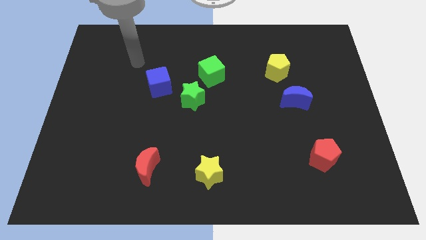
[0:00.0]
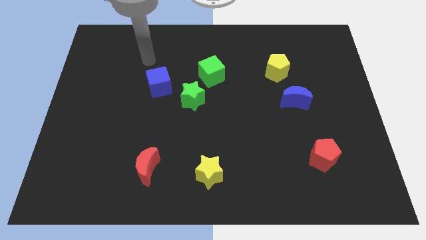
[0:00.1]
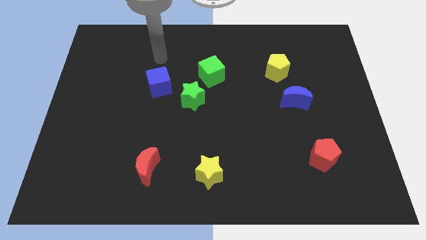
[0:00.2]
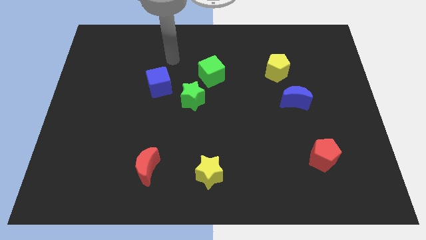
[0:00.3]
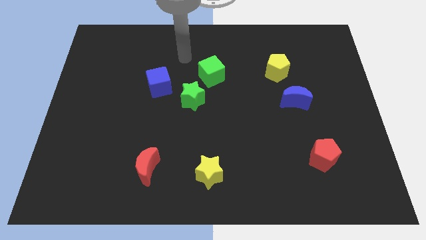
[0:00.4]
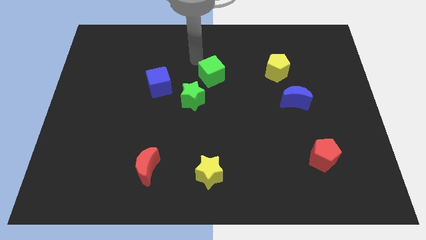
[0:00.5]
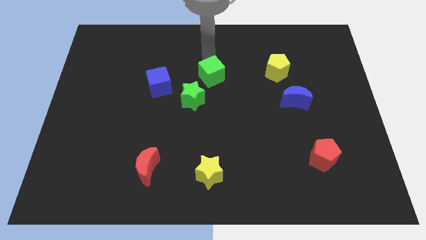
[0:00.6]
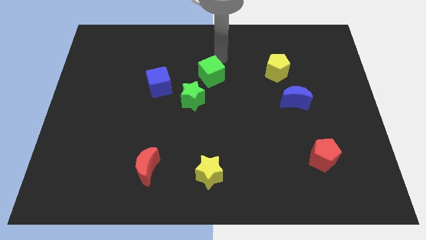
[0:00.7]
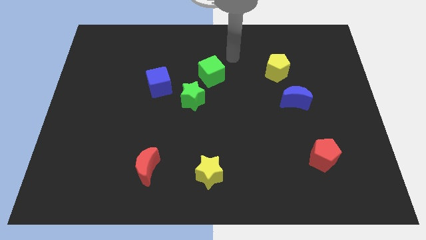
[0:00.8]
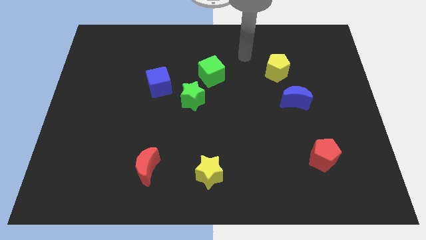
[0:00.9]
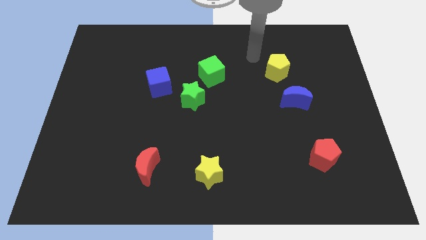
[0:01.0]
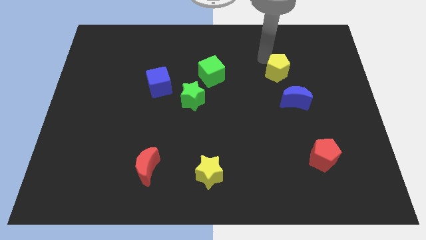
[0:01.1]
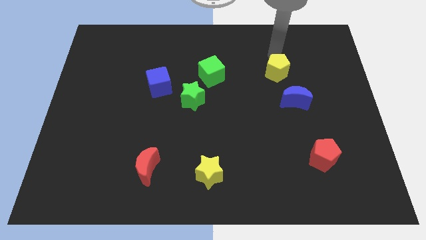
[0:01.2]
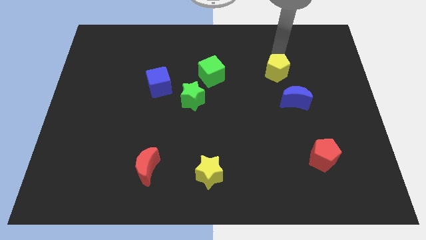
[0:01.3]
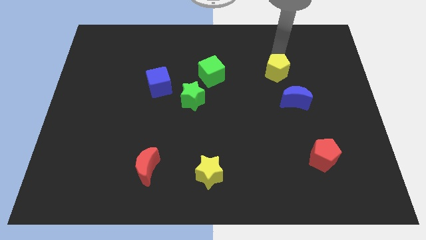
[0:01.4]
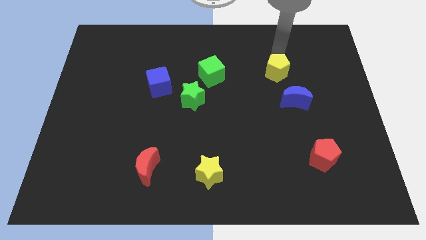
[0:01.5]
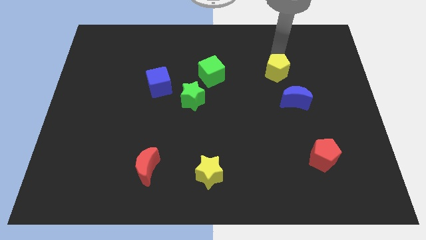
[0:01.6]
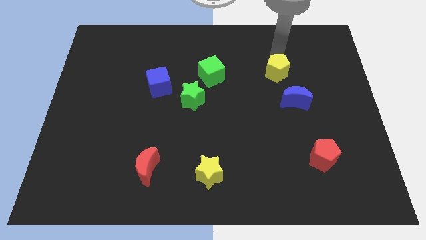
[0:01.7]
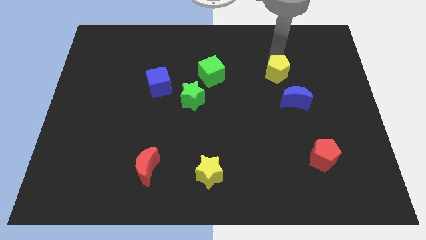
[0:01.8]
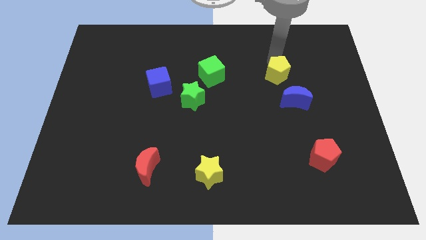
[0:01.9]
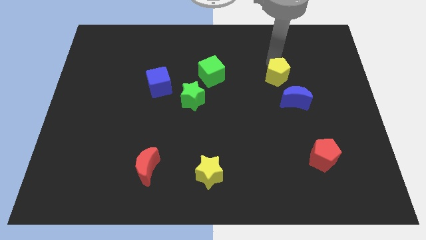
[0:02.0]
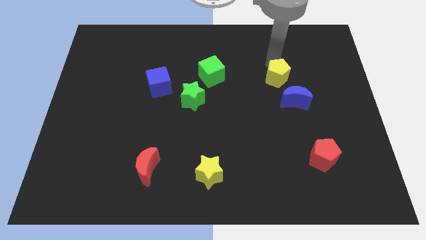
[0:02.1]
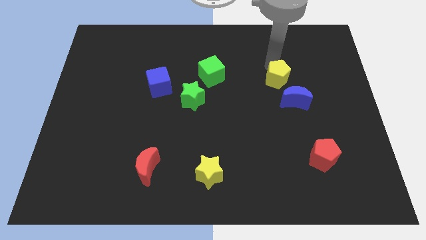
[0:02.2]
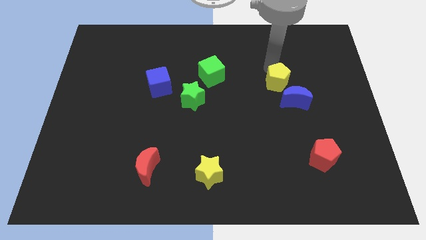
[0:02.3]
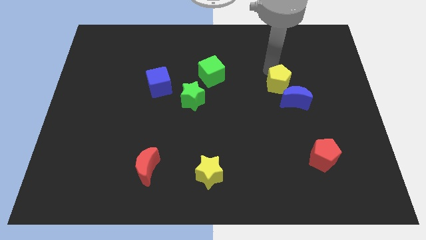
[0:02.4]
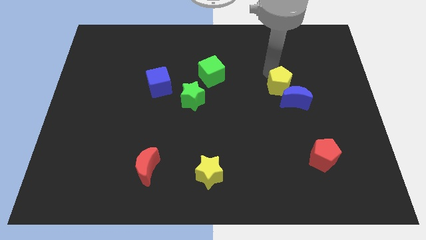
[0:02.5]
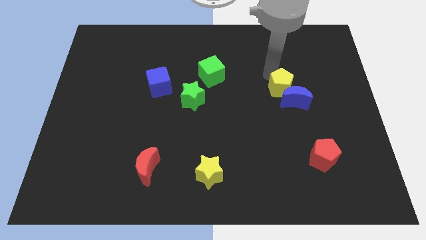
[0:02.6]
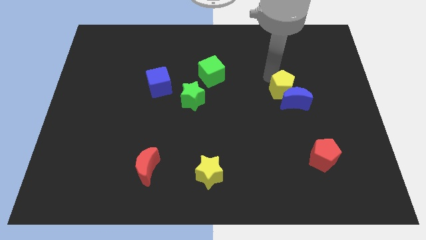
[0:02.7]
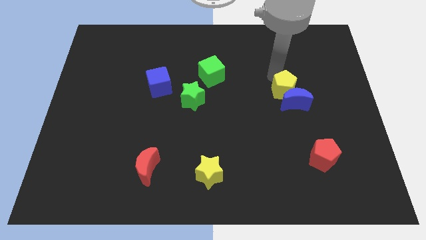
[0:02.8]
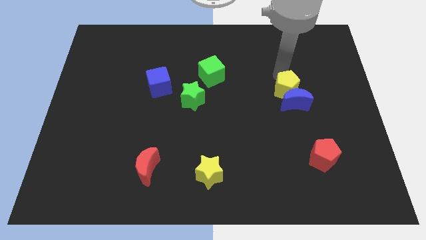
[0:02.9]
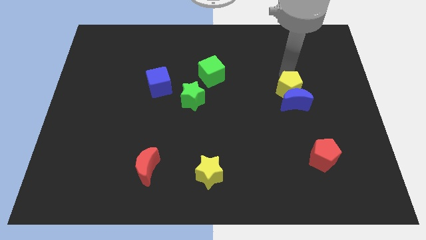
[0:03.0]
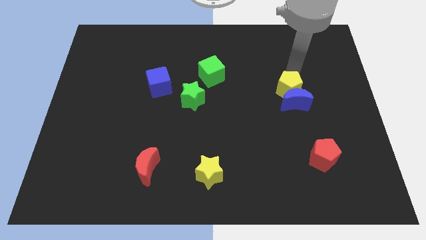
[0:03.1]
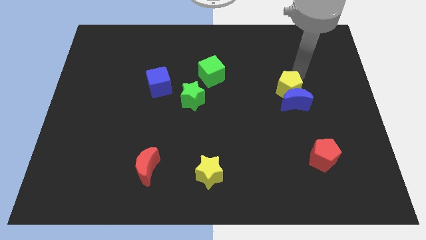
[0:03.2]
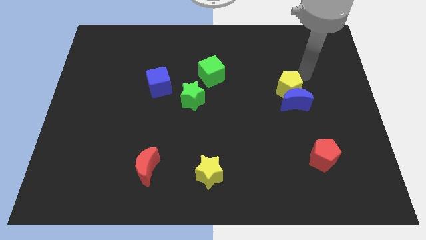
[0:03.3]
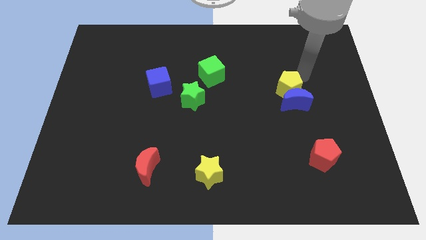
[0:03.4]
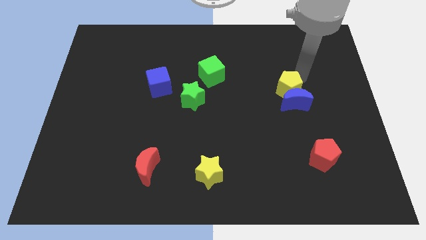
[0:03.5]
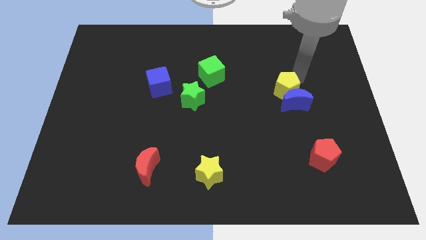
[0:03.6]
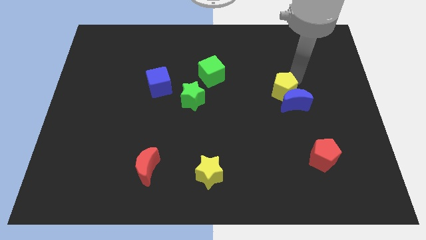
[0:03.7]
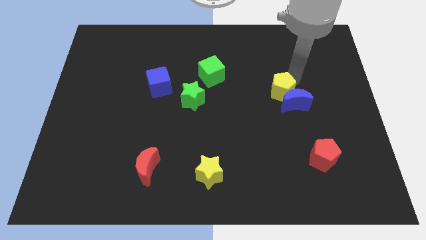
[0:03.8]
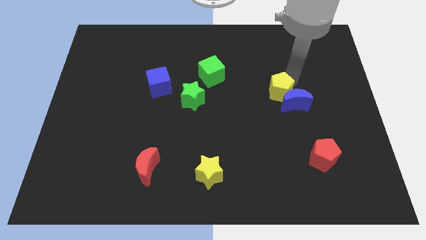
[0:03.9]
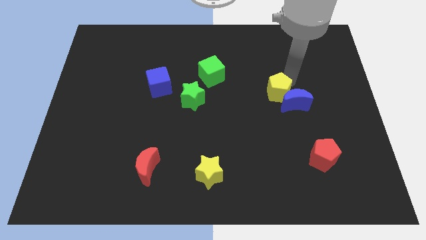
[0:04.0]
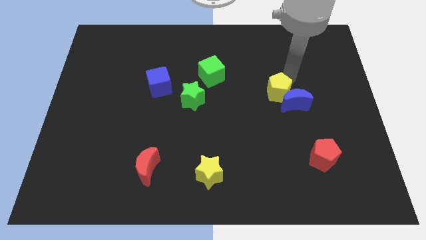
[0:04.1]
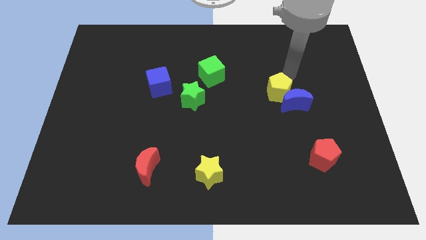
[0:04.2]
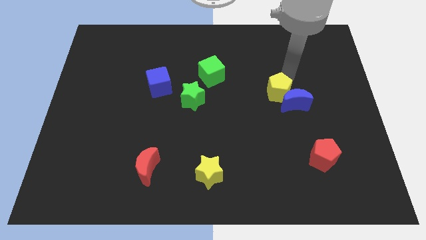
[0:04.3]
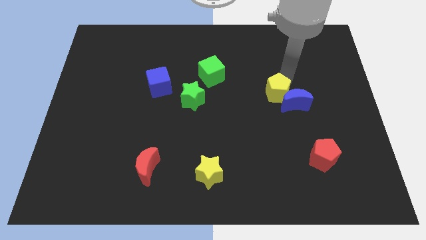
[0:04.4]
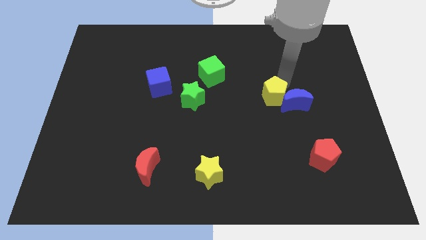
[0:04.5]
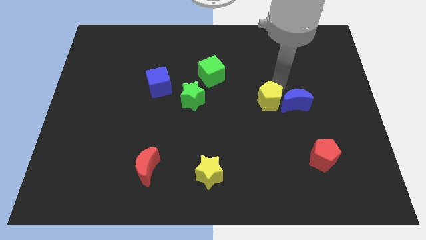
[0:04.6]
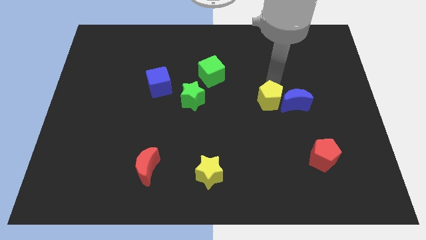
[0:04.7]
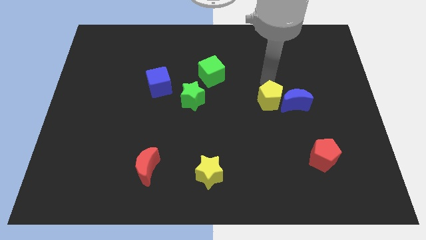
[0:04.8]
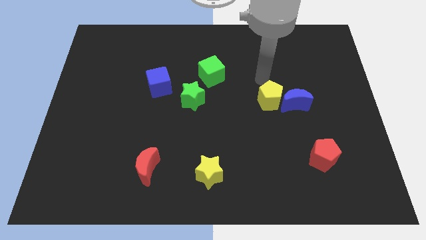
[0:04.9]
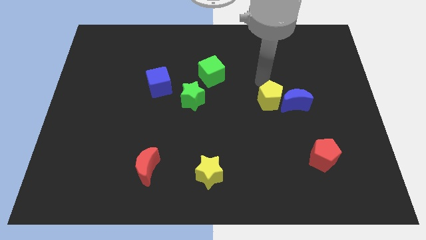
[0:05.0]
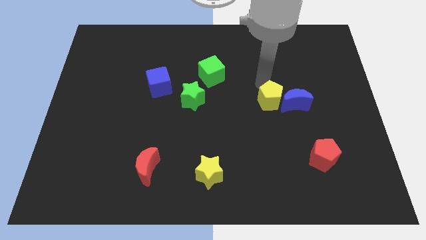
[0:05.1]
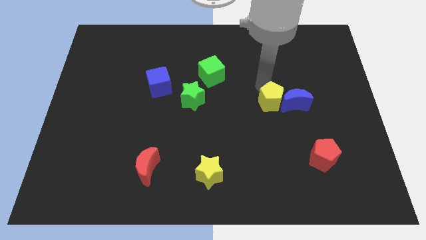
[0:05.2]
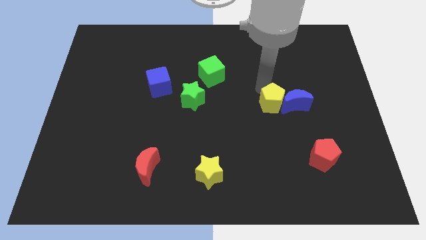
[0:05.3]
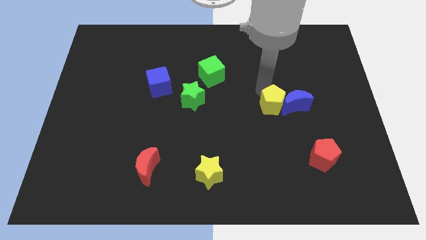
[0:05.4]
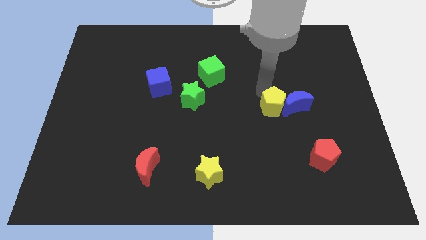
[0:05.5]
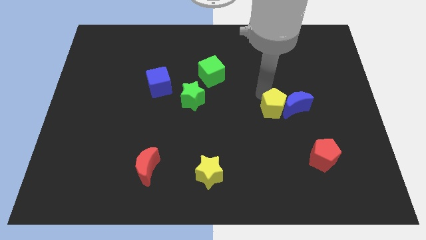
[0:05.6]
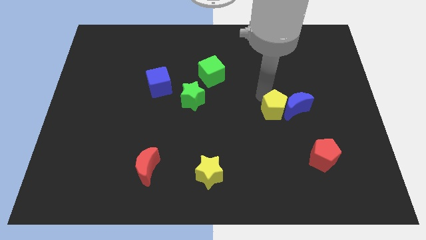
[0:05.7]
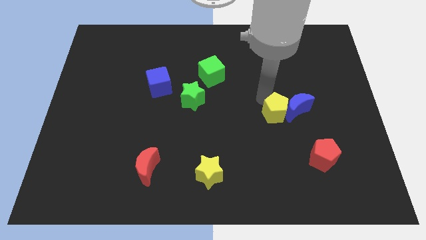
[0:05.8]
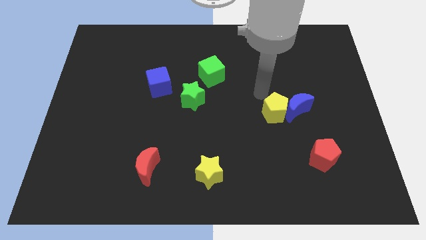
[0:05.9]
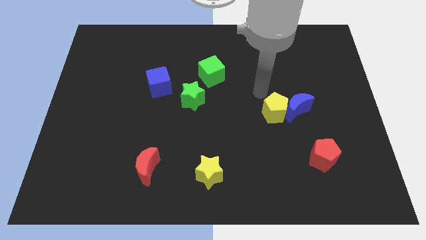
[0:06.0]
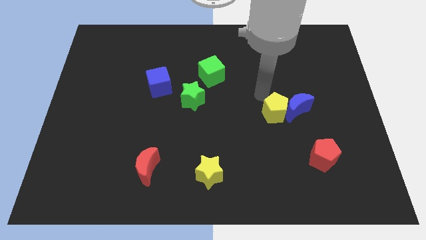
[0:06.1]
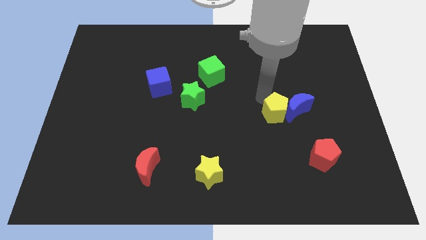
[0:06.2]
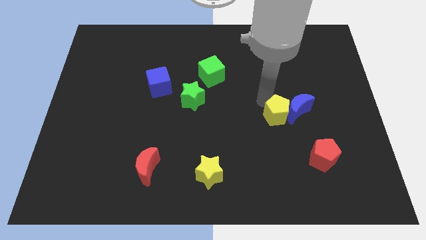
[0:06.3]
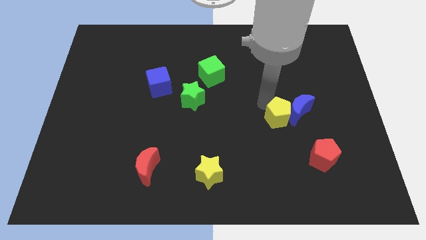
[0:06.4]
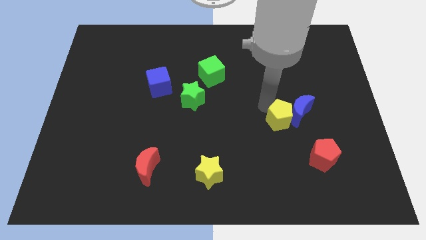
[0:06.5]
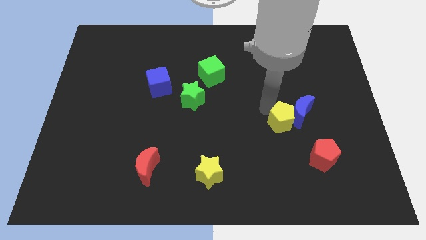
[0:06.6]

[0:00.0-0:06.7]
slide the yellow pentagon to the top left of the red pentagon
